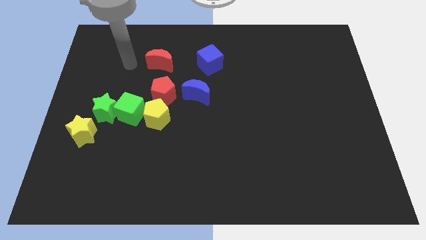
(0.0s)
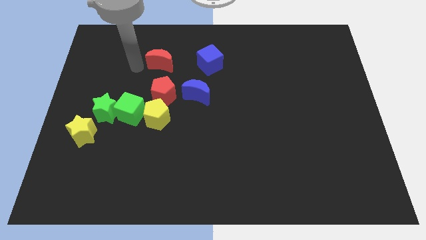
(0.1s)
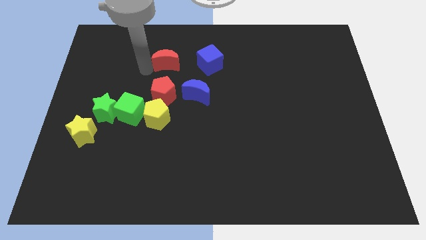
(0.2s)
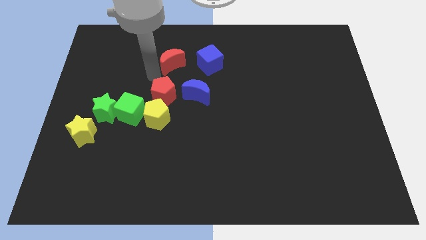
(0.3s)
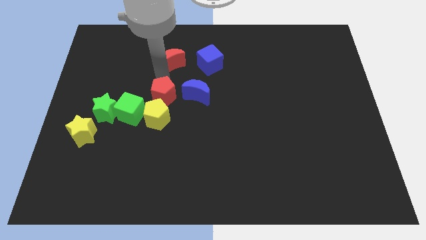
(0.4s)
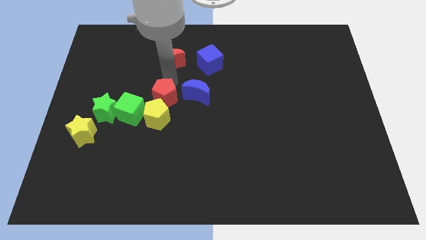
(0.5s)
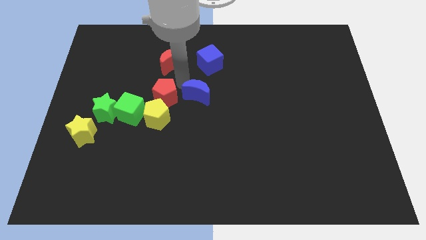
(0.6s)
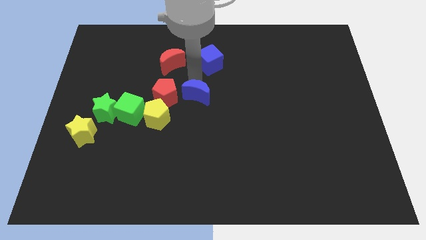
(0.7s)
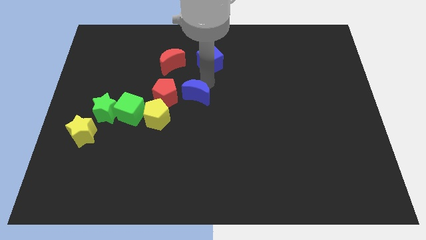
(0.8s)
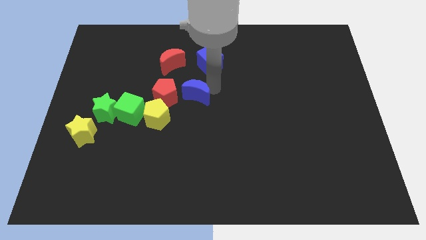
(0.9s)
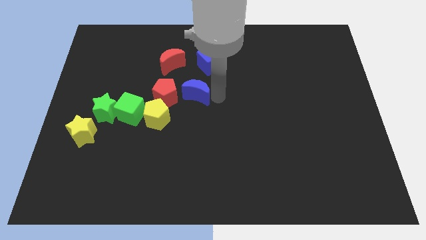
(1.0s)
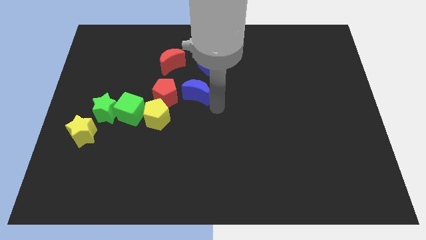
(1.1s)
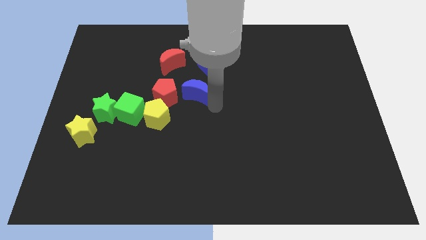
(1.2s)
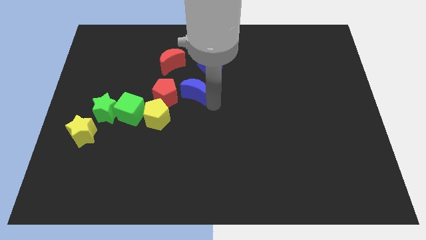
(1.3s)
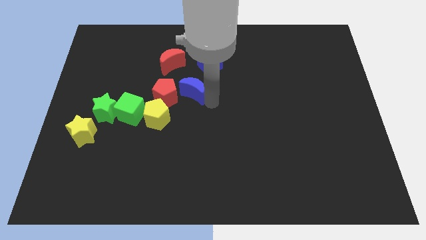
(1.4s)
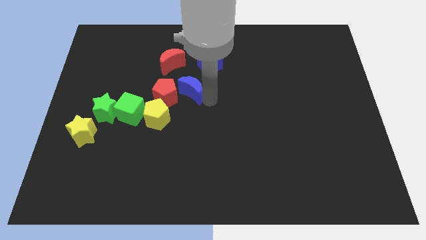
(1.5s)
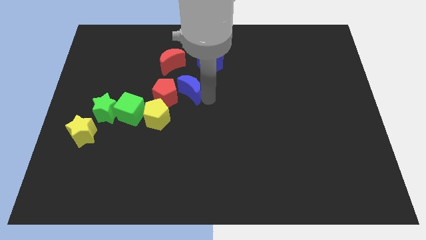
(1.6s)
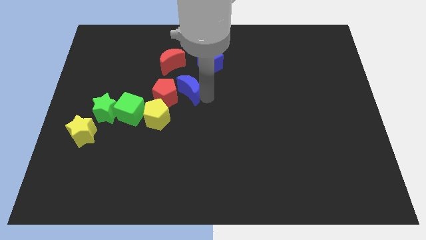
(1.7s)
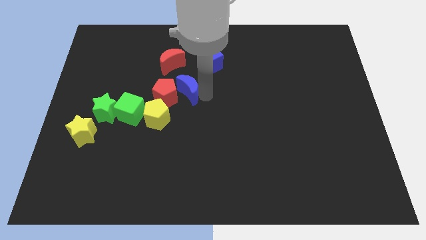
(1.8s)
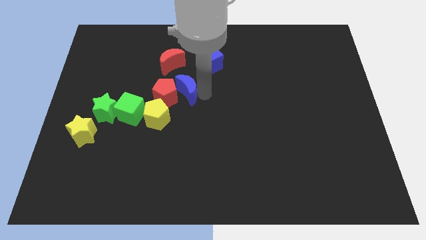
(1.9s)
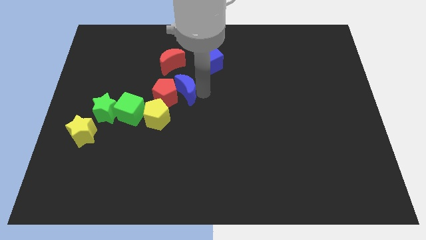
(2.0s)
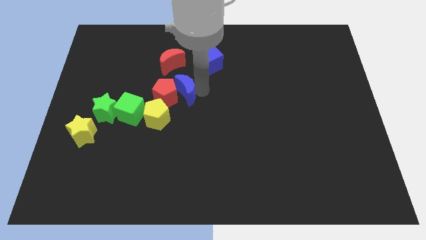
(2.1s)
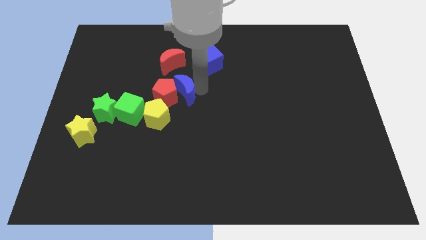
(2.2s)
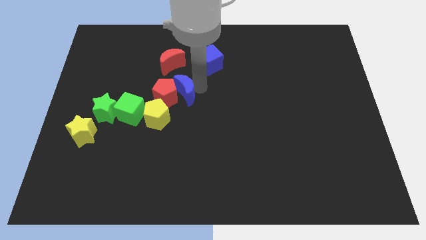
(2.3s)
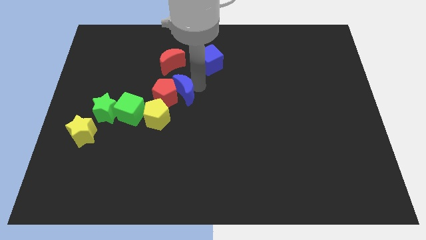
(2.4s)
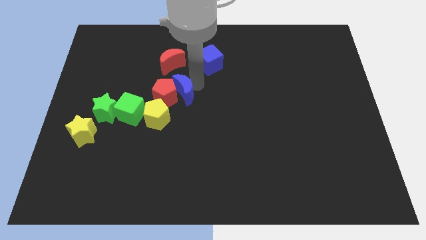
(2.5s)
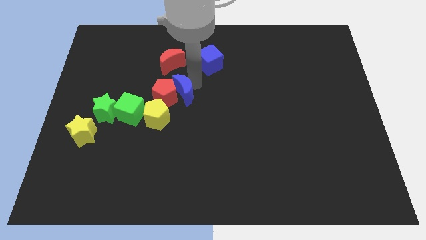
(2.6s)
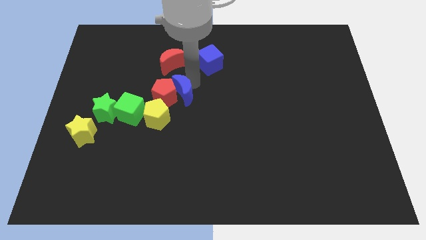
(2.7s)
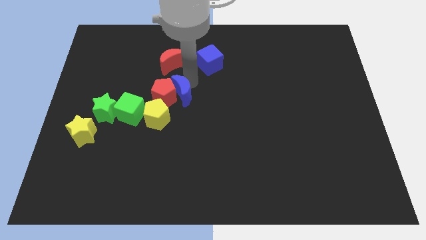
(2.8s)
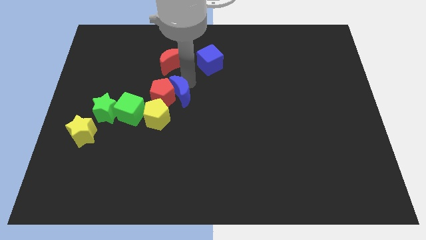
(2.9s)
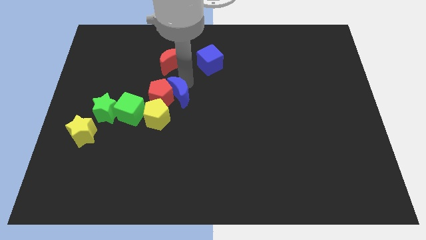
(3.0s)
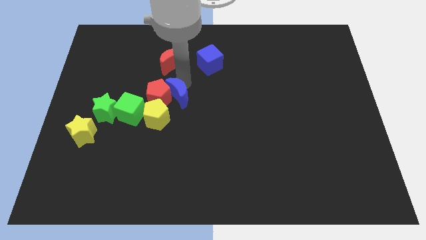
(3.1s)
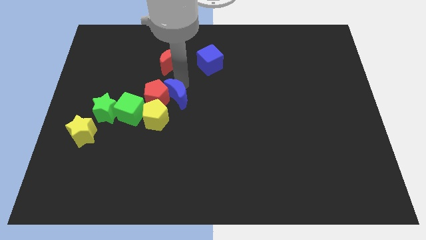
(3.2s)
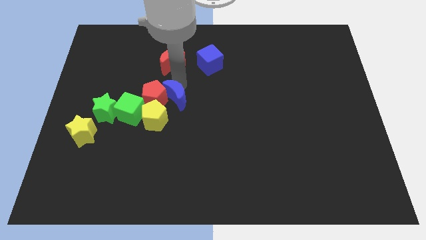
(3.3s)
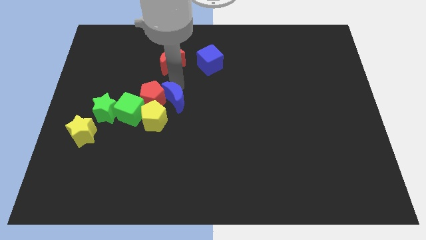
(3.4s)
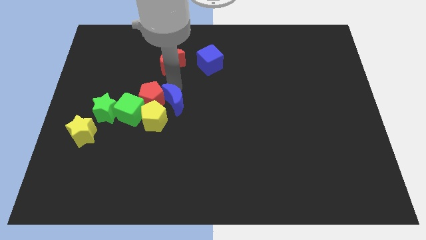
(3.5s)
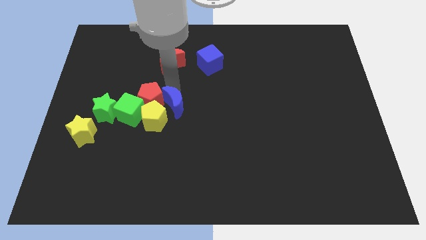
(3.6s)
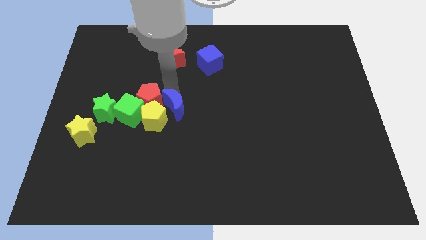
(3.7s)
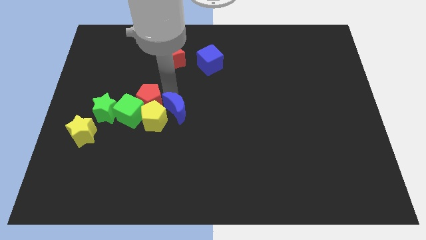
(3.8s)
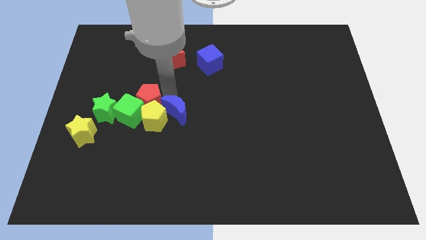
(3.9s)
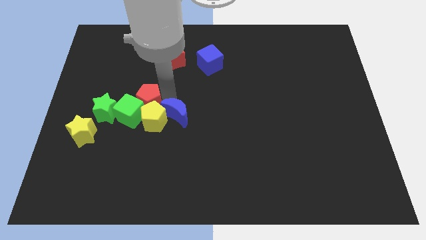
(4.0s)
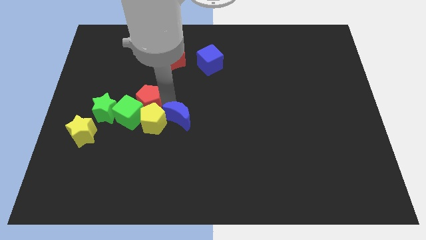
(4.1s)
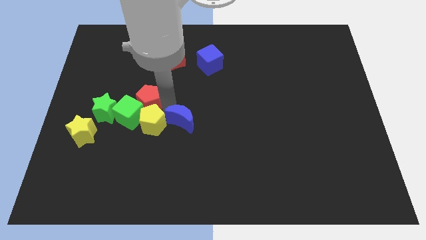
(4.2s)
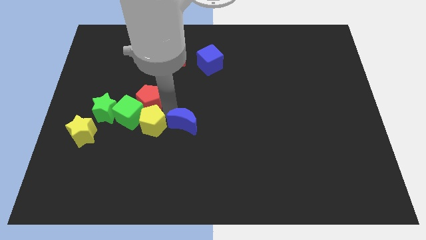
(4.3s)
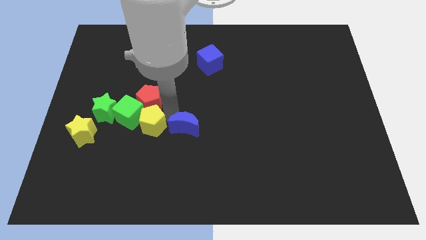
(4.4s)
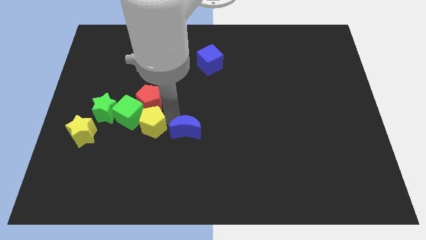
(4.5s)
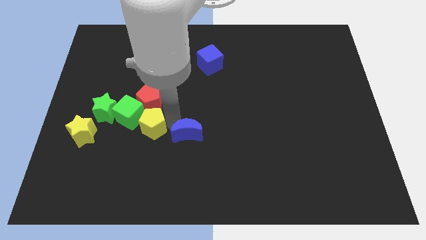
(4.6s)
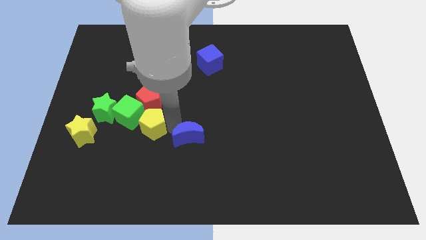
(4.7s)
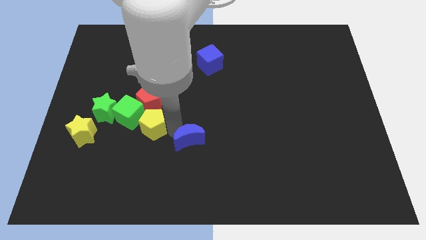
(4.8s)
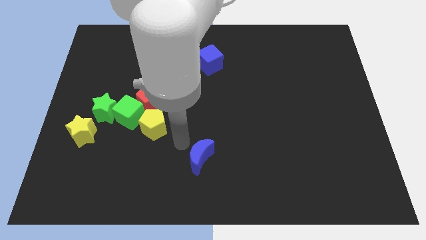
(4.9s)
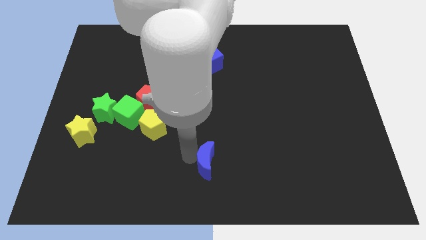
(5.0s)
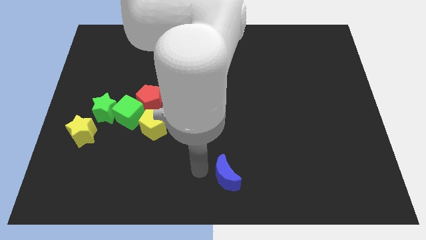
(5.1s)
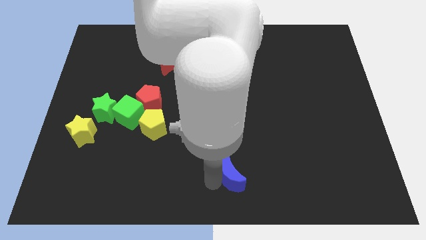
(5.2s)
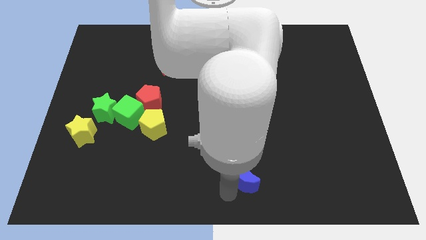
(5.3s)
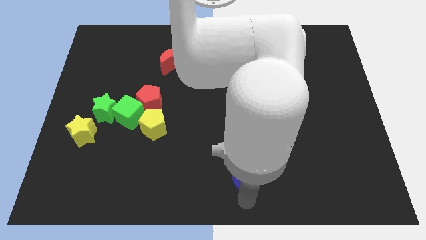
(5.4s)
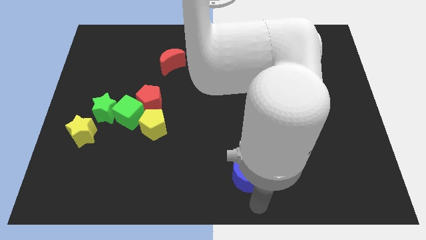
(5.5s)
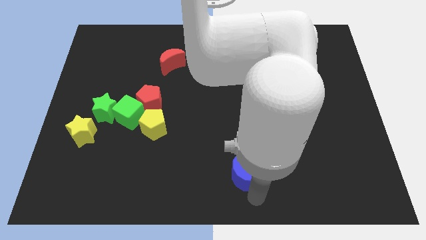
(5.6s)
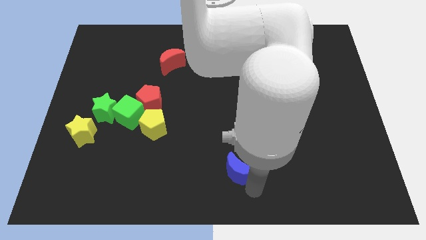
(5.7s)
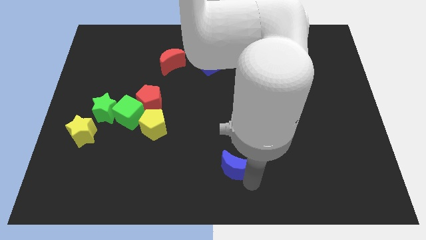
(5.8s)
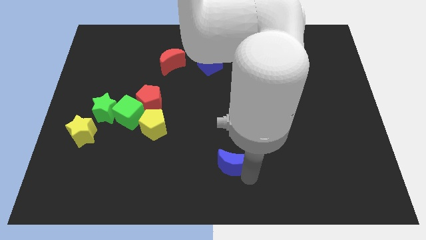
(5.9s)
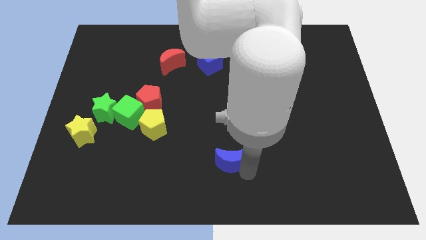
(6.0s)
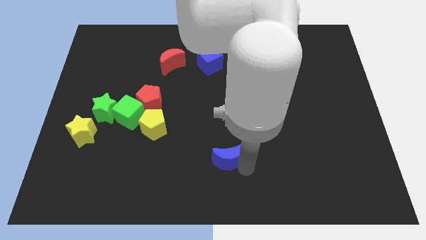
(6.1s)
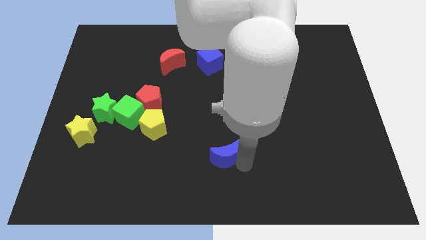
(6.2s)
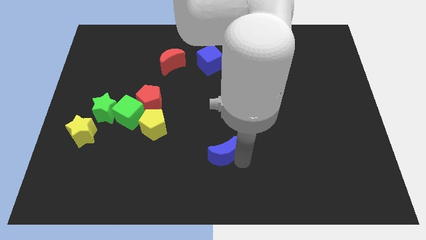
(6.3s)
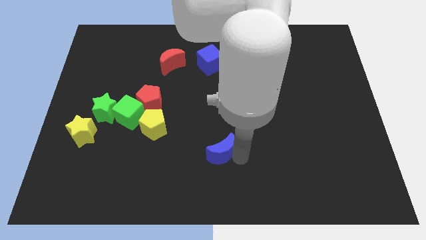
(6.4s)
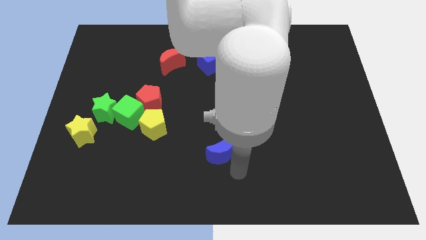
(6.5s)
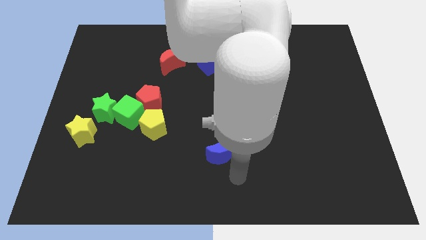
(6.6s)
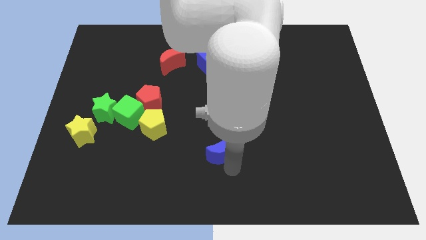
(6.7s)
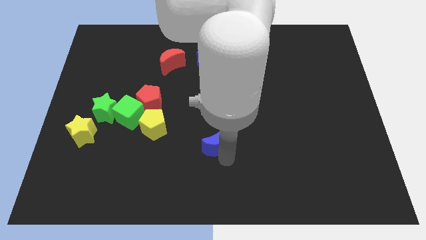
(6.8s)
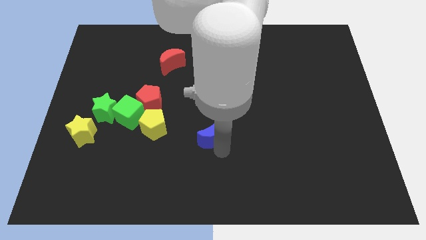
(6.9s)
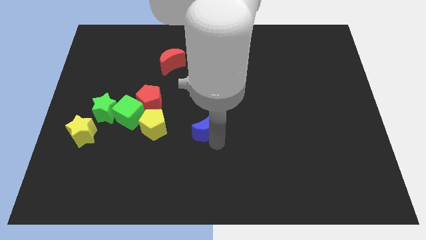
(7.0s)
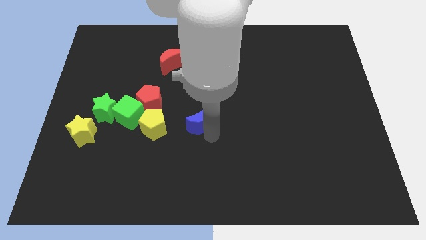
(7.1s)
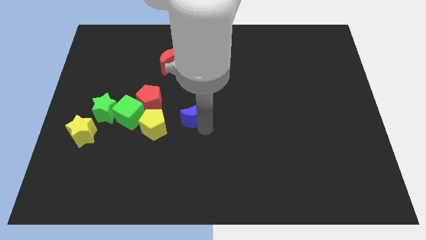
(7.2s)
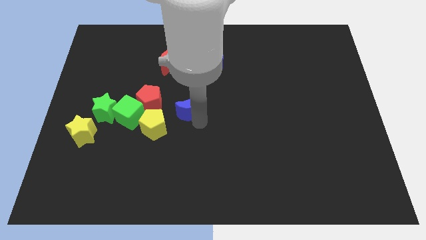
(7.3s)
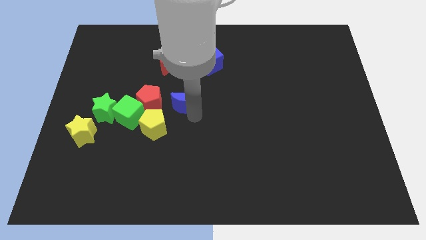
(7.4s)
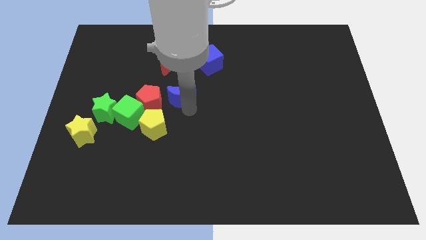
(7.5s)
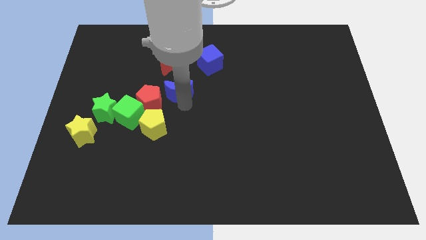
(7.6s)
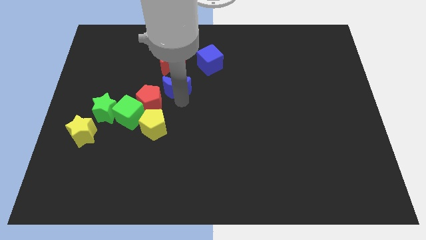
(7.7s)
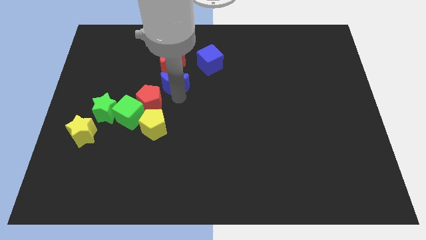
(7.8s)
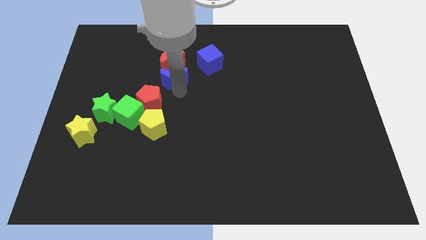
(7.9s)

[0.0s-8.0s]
slide the blue moon up and then to the left slightly

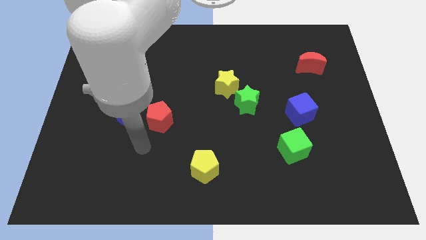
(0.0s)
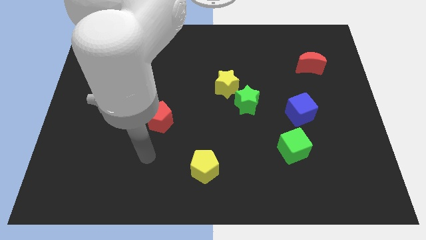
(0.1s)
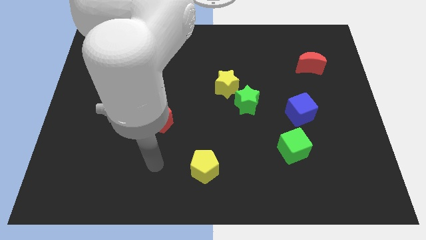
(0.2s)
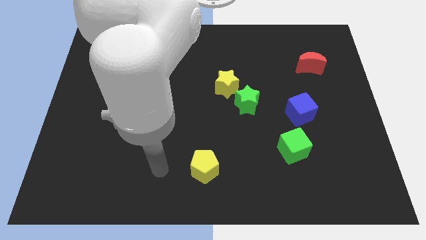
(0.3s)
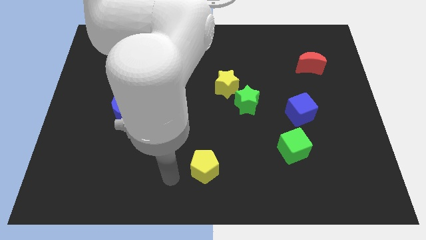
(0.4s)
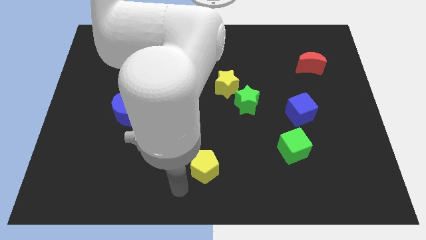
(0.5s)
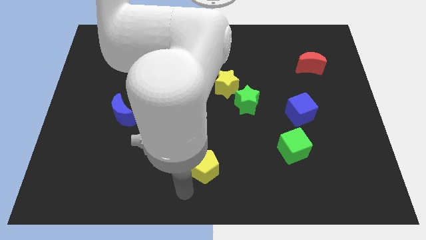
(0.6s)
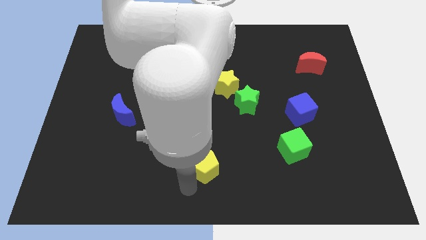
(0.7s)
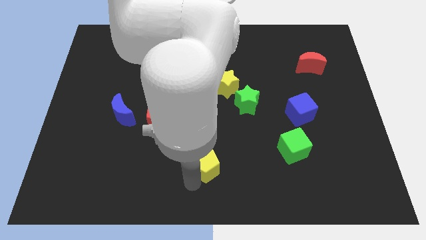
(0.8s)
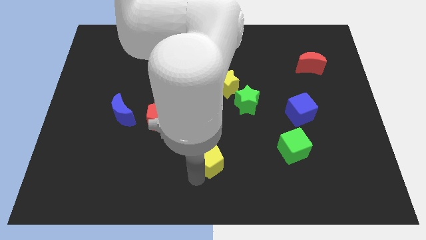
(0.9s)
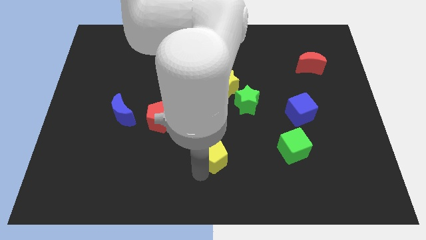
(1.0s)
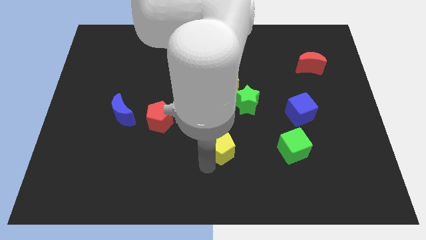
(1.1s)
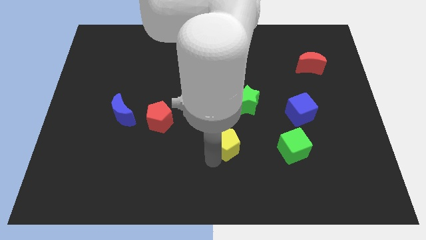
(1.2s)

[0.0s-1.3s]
move the yellow pentagon a little upwards and then to the right
